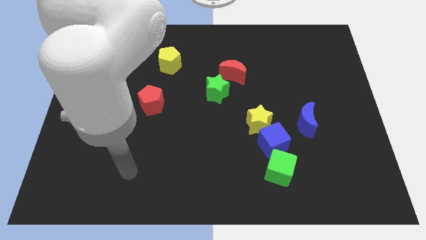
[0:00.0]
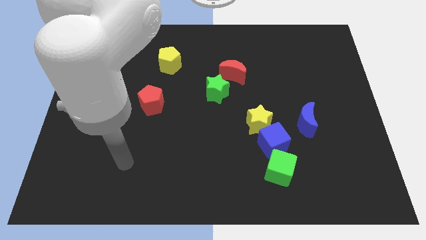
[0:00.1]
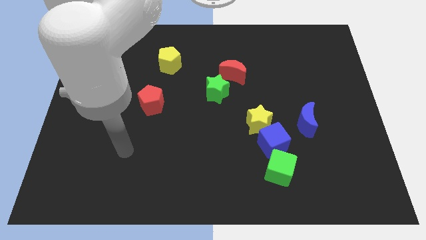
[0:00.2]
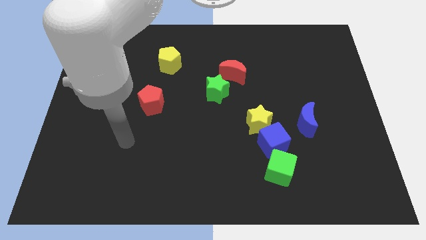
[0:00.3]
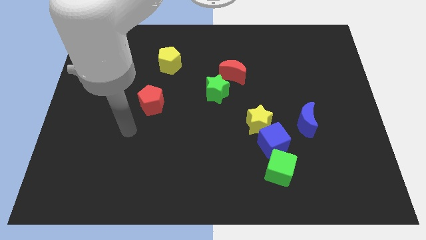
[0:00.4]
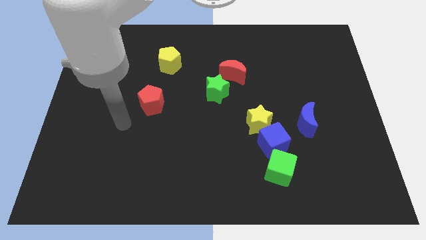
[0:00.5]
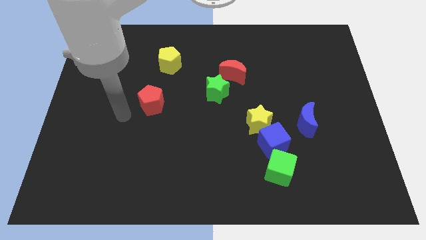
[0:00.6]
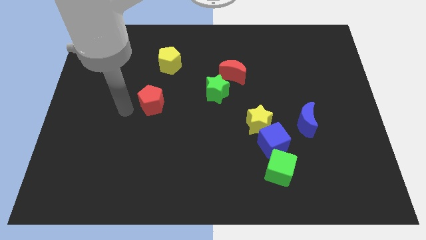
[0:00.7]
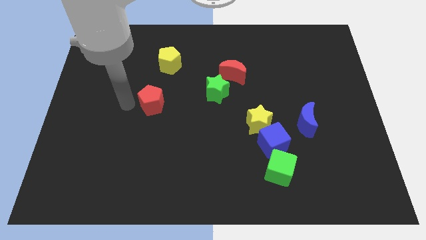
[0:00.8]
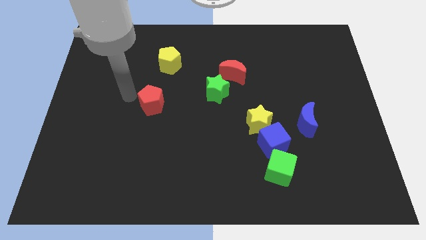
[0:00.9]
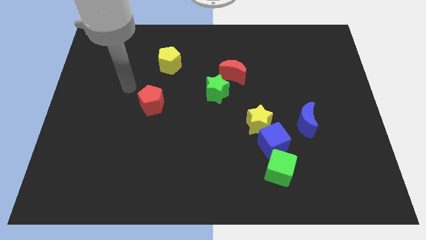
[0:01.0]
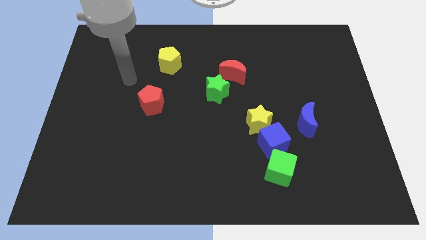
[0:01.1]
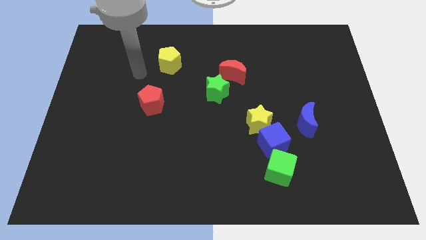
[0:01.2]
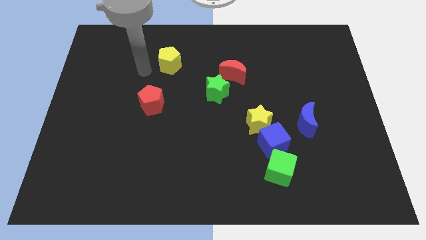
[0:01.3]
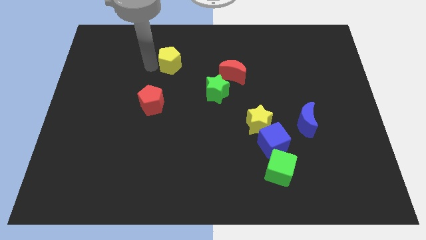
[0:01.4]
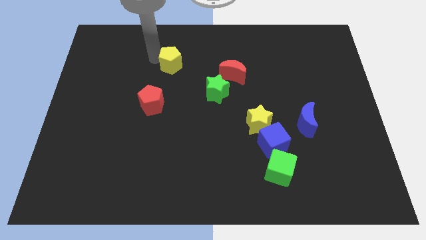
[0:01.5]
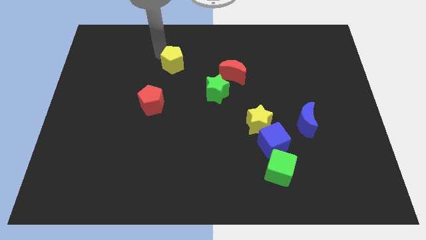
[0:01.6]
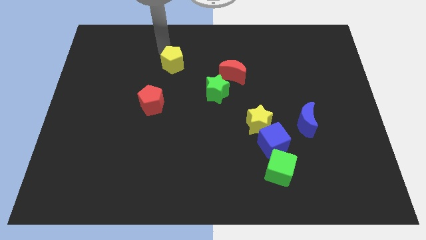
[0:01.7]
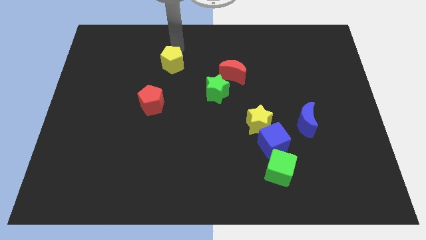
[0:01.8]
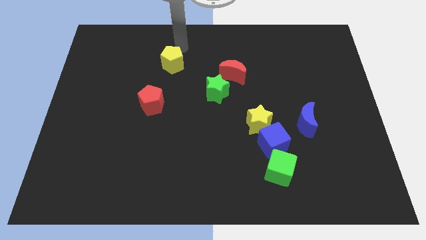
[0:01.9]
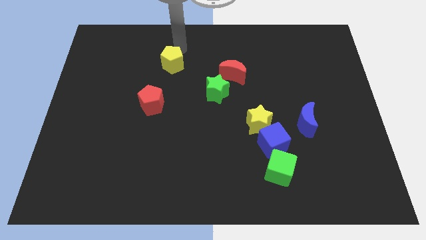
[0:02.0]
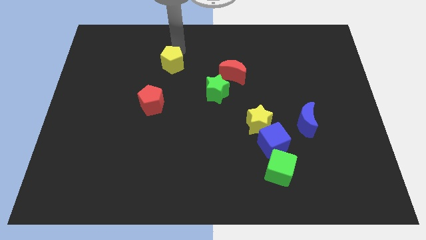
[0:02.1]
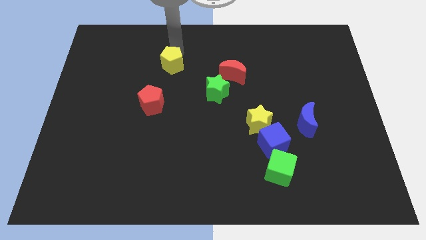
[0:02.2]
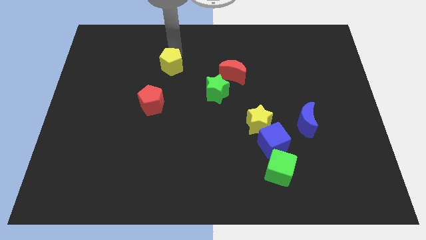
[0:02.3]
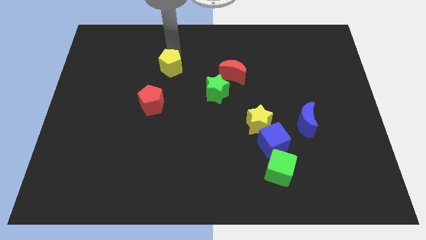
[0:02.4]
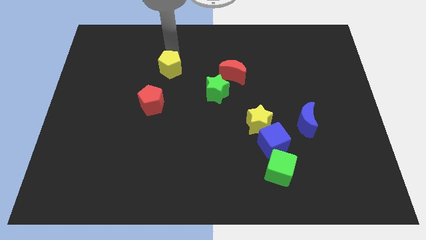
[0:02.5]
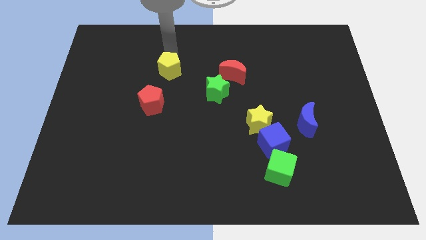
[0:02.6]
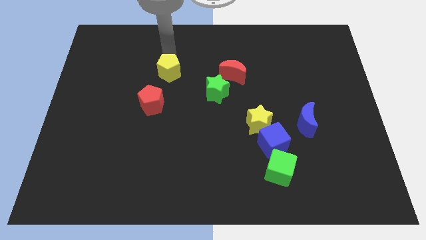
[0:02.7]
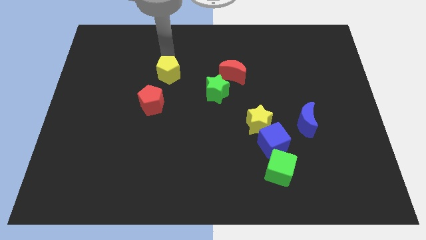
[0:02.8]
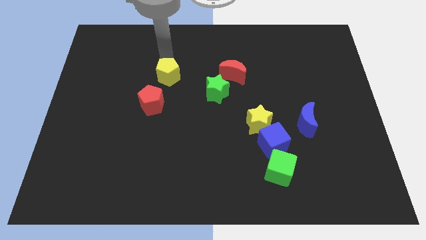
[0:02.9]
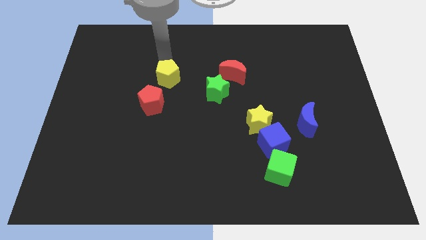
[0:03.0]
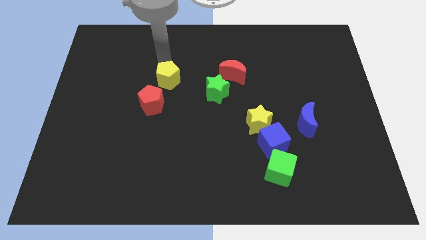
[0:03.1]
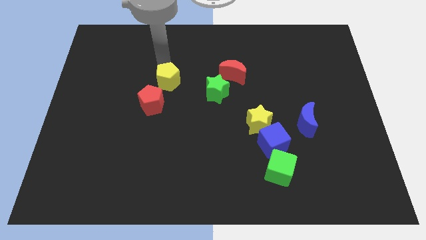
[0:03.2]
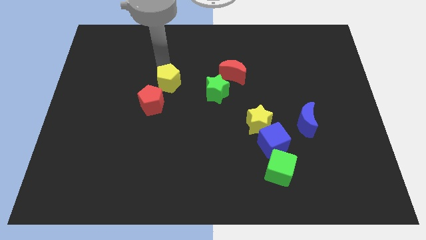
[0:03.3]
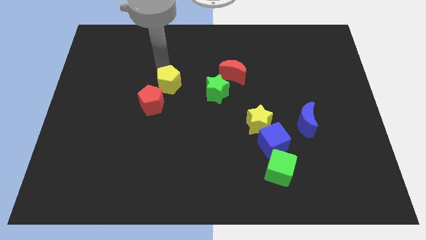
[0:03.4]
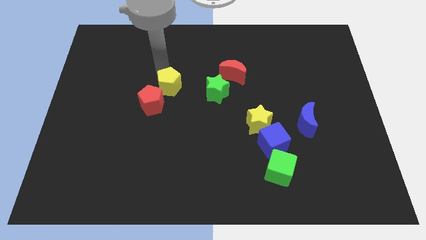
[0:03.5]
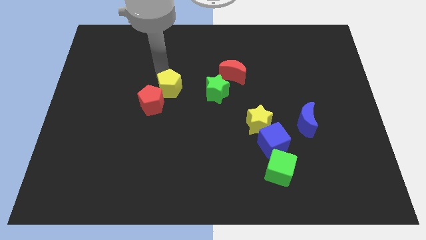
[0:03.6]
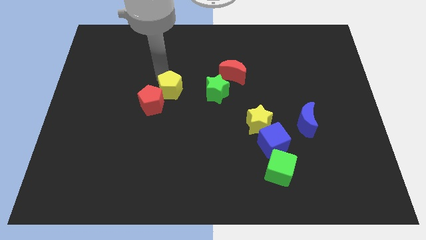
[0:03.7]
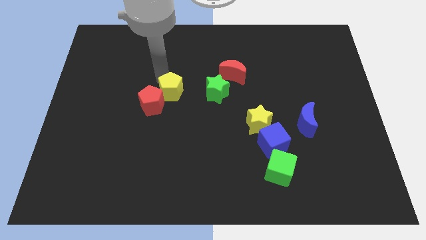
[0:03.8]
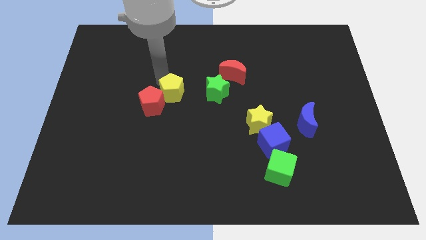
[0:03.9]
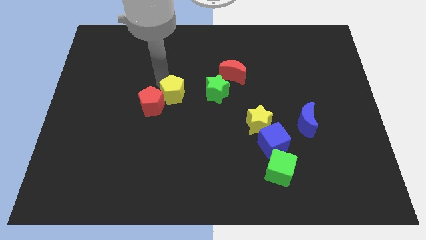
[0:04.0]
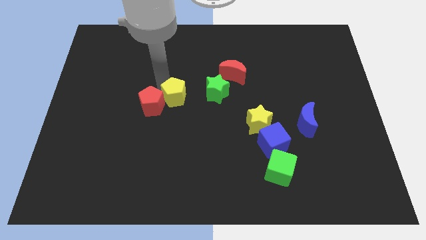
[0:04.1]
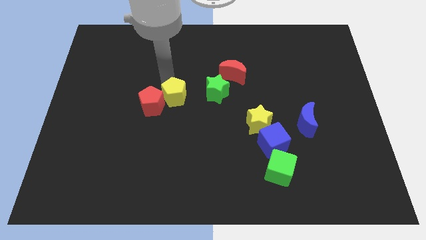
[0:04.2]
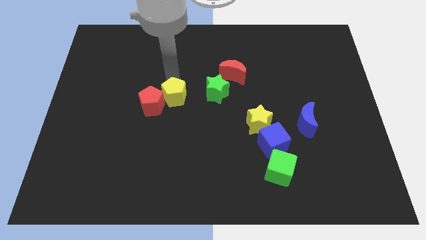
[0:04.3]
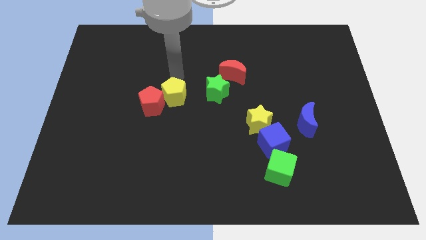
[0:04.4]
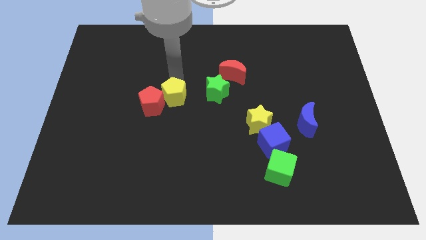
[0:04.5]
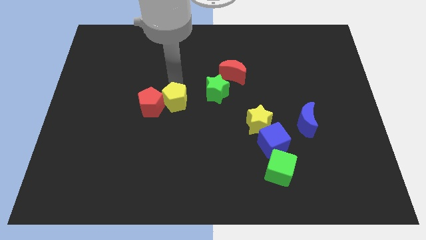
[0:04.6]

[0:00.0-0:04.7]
move the yellow pentagon to the bottom right side of the red pentagon

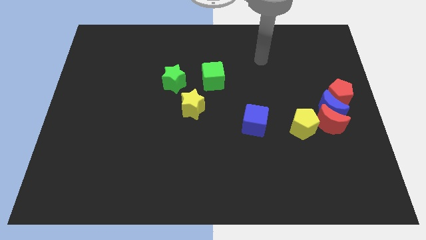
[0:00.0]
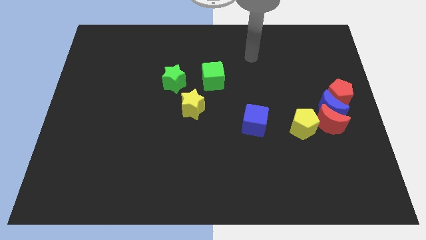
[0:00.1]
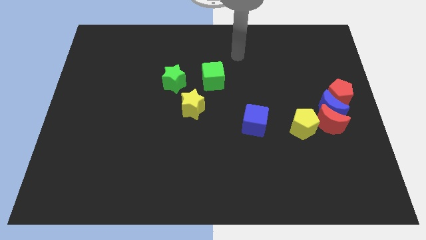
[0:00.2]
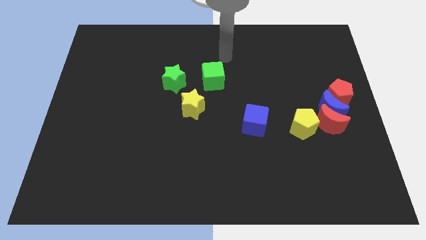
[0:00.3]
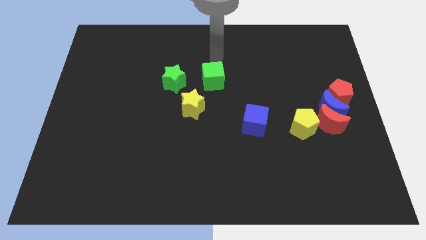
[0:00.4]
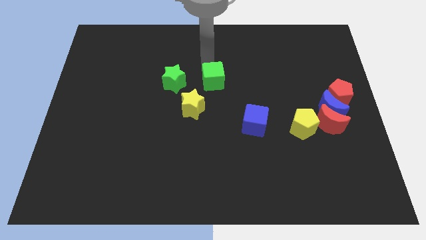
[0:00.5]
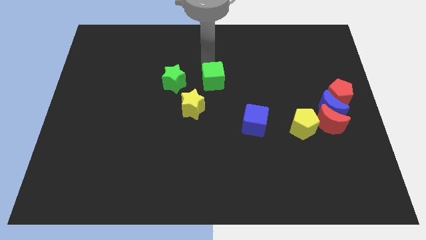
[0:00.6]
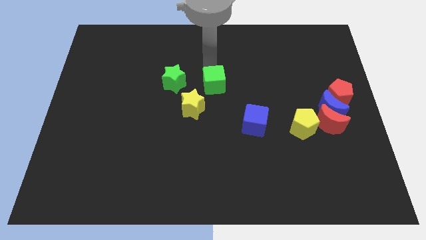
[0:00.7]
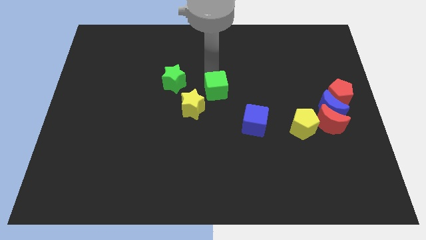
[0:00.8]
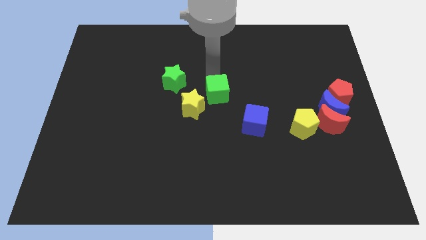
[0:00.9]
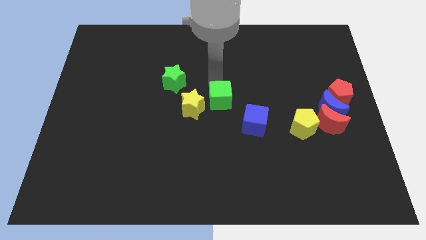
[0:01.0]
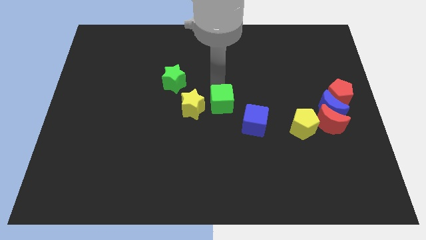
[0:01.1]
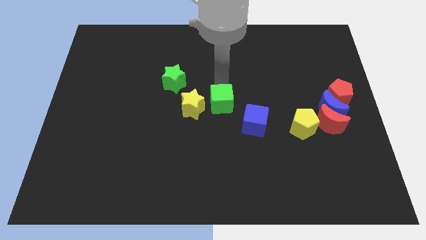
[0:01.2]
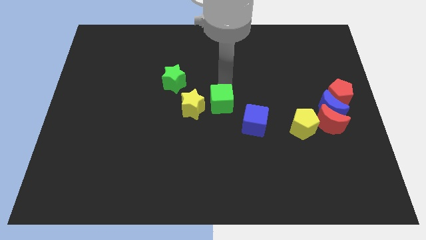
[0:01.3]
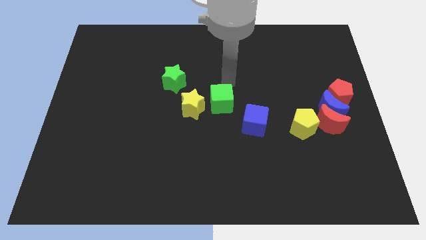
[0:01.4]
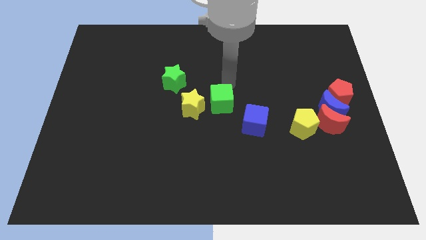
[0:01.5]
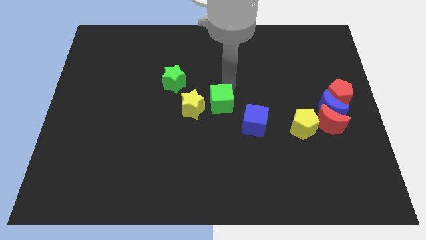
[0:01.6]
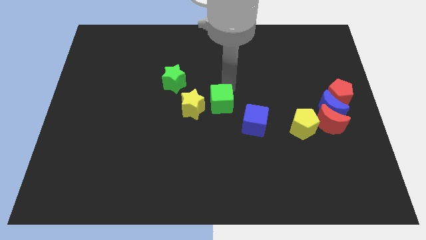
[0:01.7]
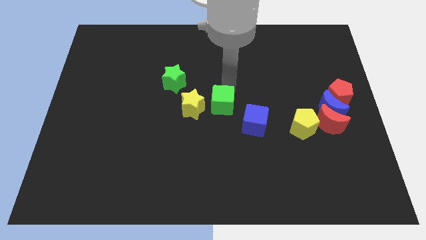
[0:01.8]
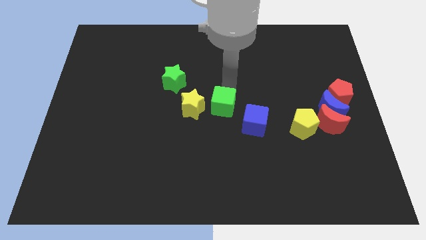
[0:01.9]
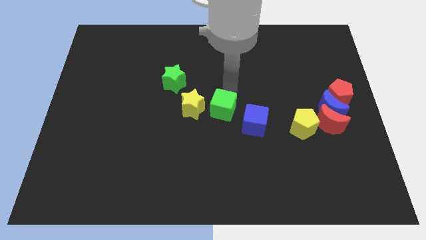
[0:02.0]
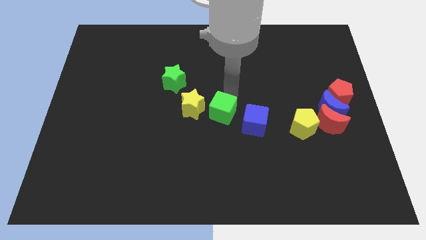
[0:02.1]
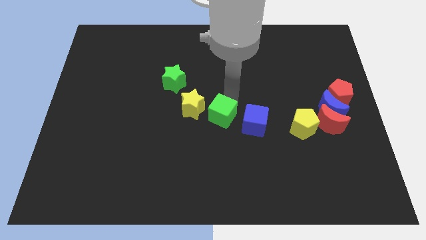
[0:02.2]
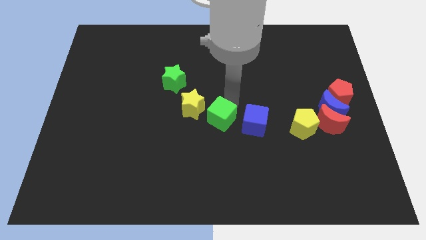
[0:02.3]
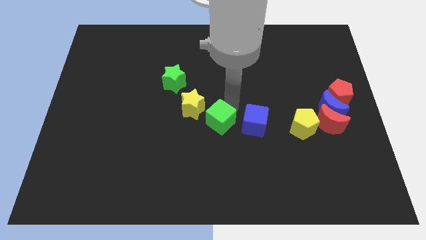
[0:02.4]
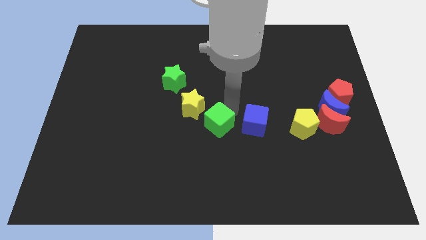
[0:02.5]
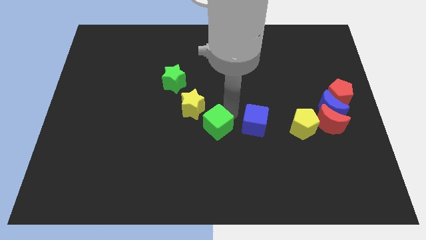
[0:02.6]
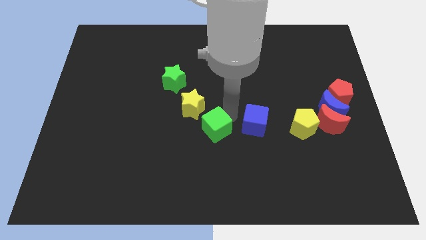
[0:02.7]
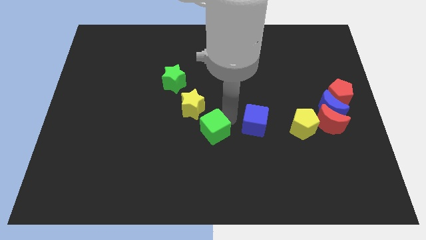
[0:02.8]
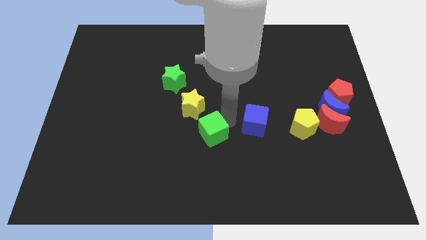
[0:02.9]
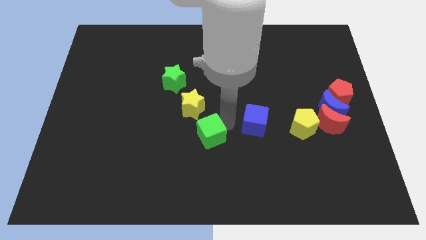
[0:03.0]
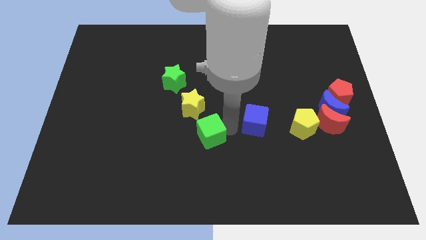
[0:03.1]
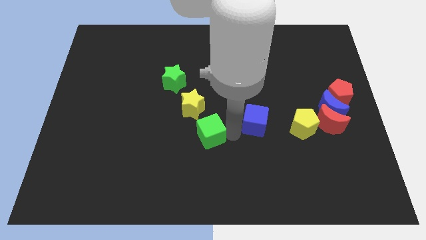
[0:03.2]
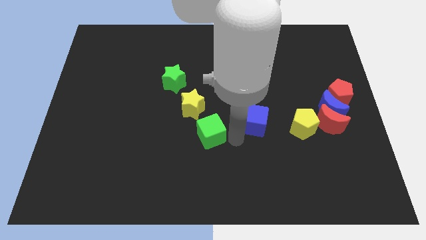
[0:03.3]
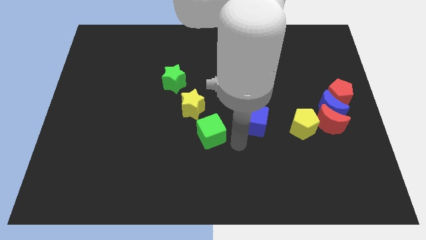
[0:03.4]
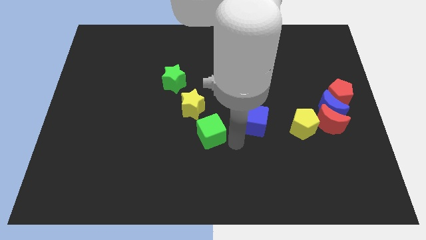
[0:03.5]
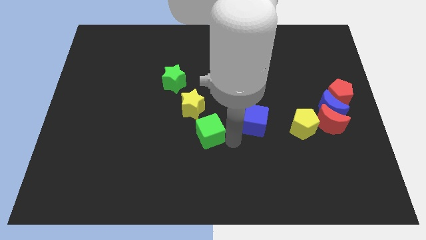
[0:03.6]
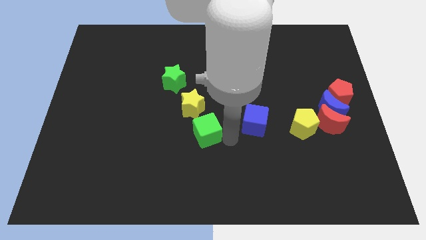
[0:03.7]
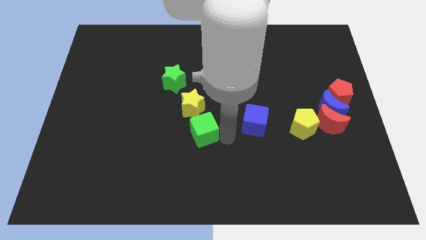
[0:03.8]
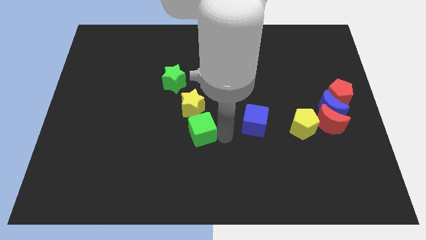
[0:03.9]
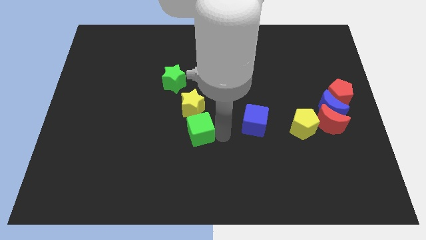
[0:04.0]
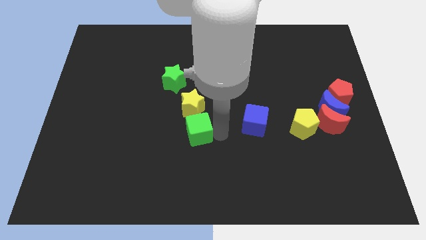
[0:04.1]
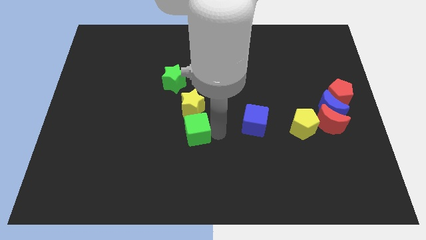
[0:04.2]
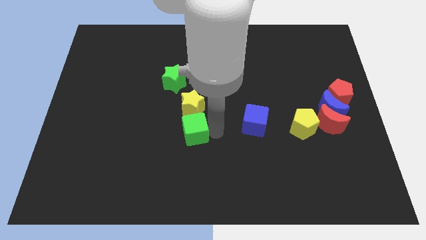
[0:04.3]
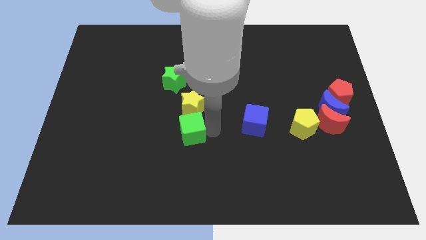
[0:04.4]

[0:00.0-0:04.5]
move the green cube to the bottom left of the yellow star
